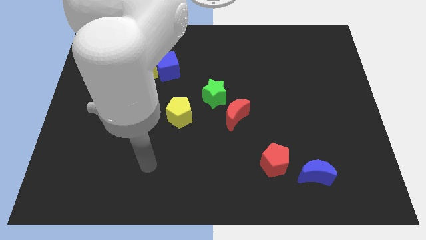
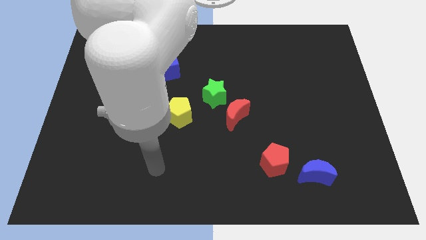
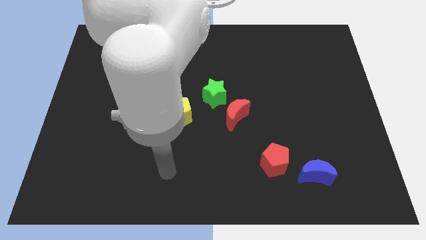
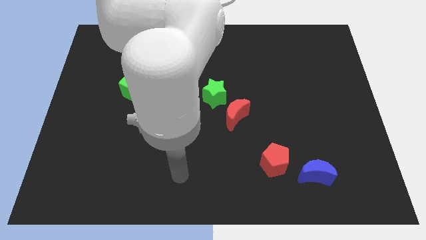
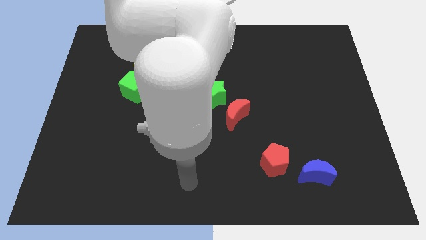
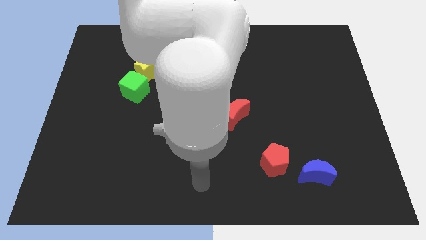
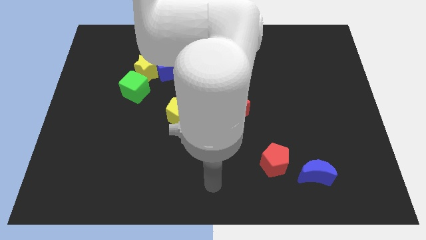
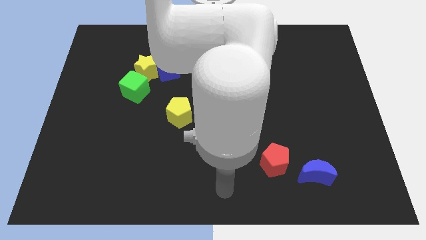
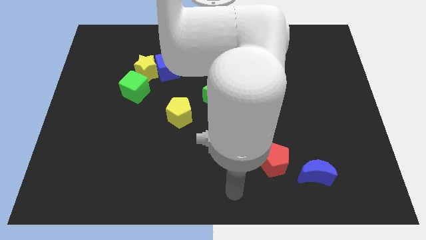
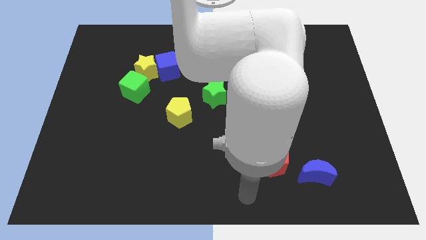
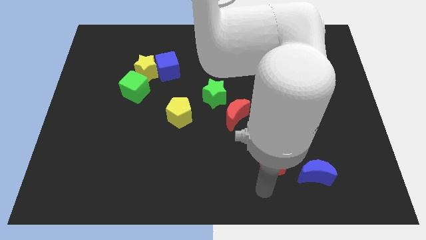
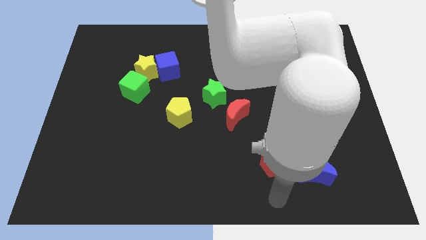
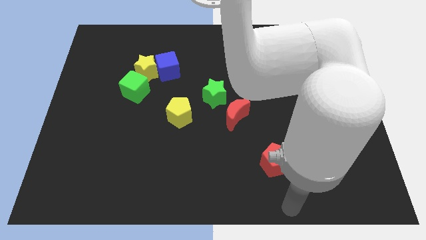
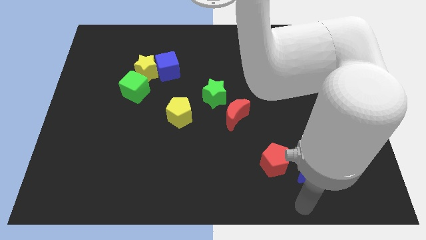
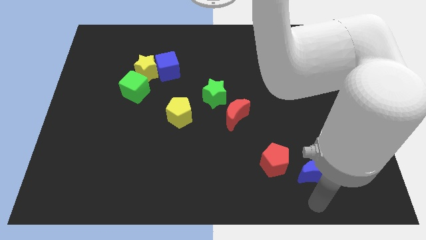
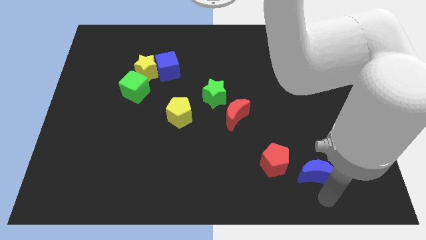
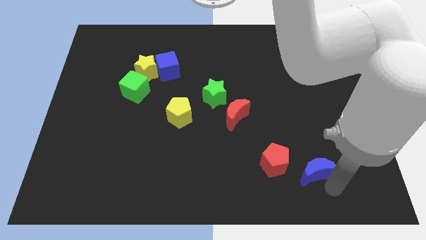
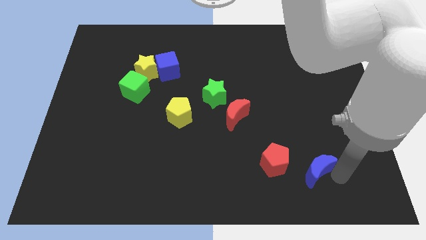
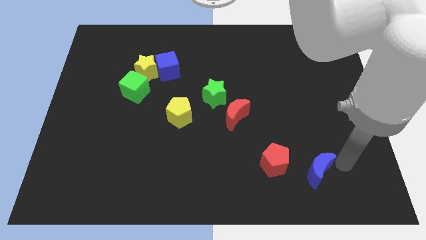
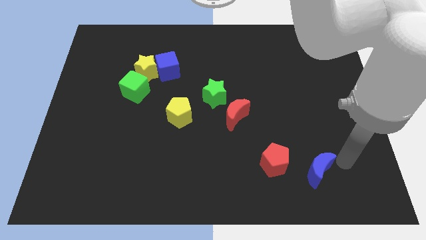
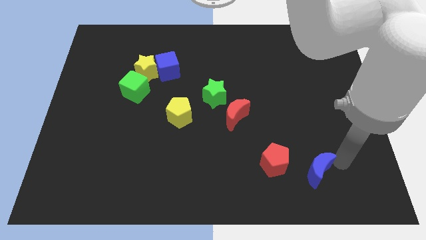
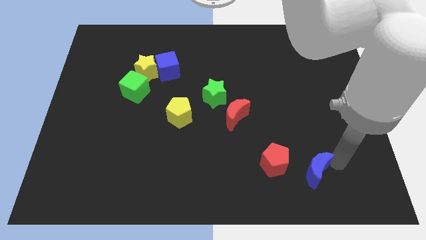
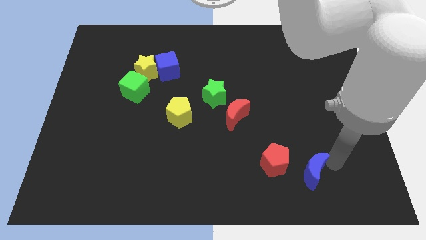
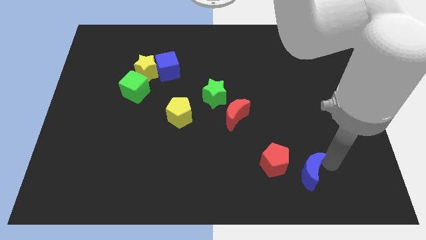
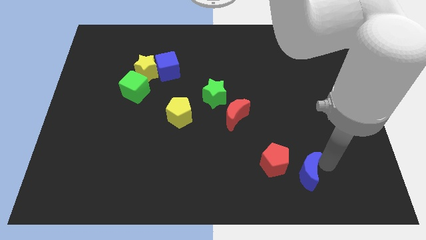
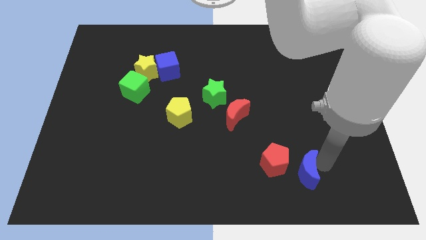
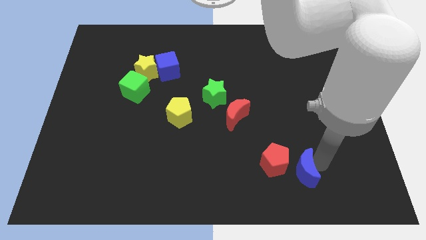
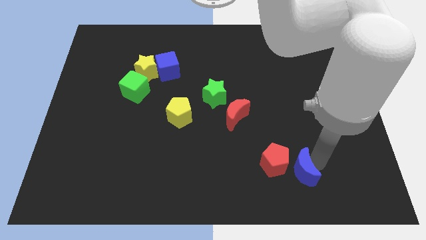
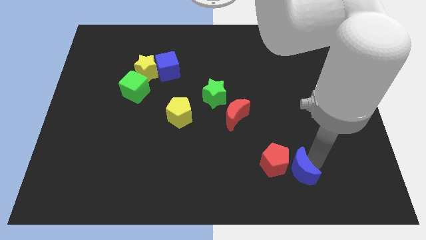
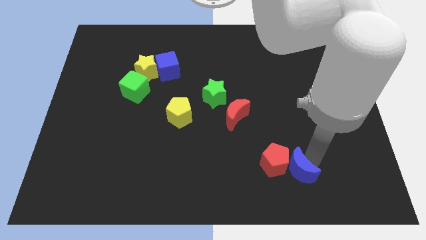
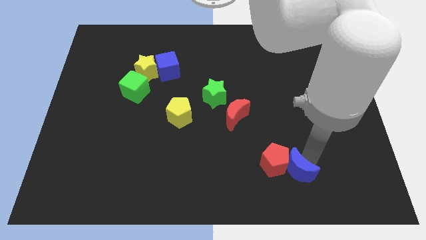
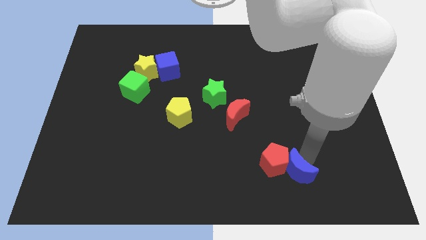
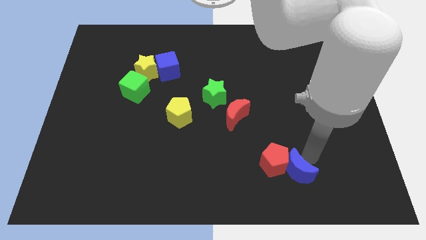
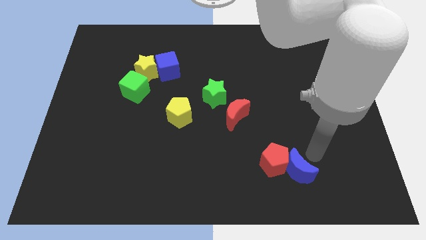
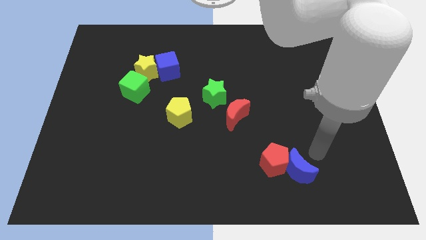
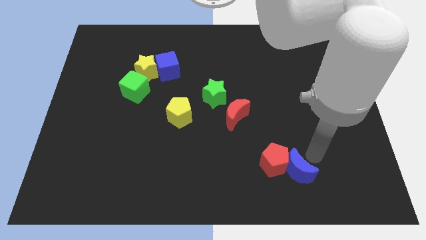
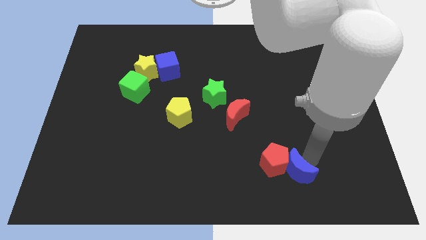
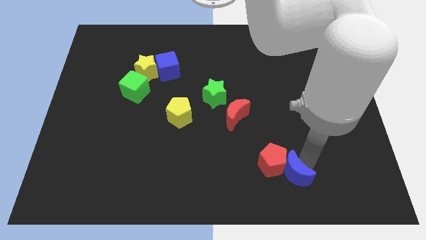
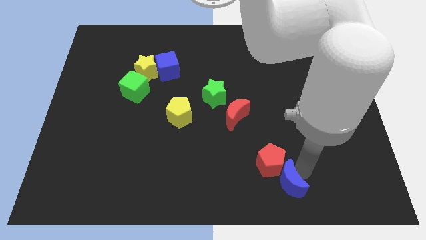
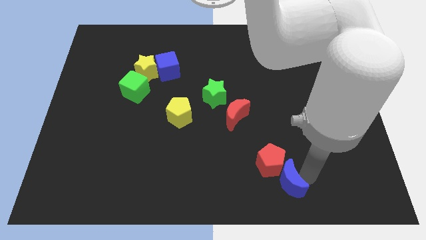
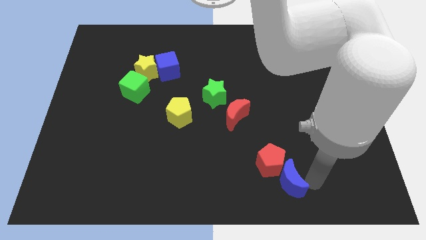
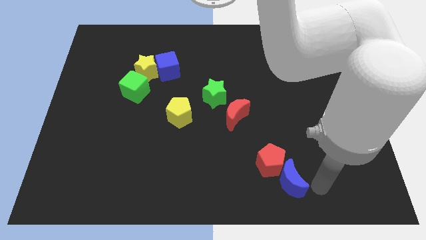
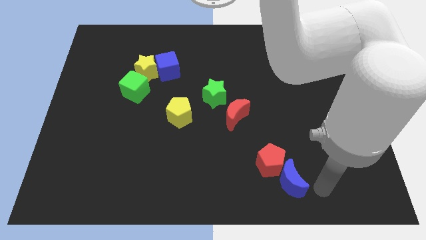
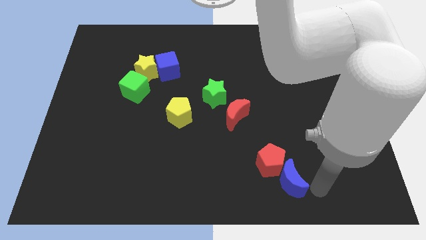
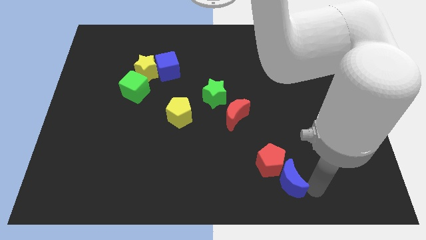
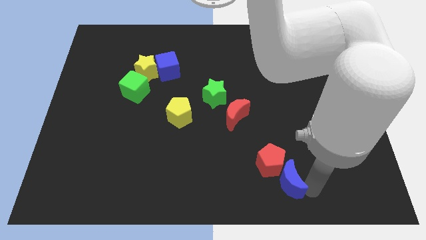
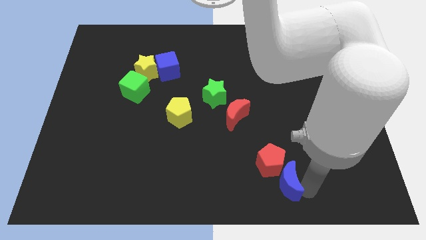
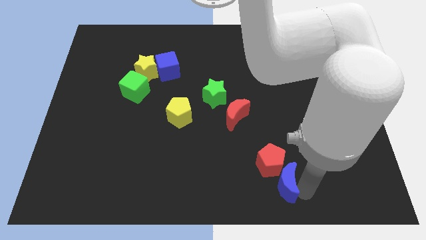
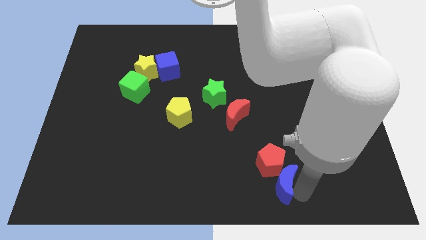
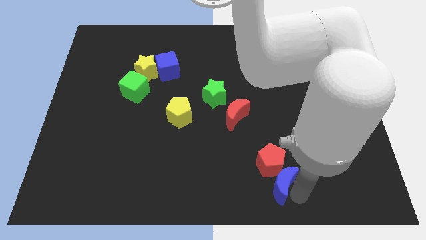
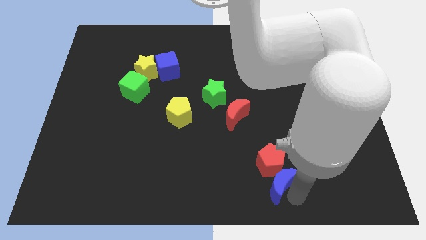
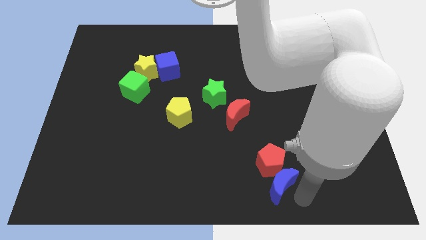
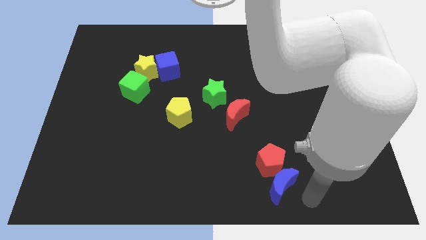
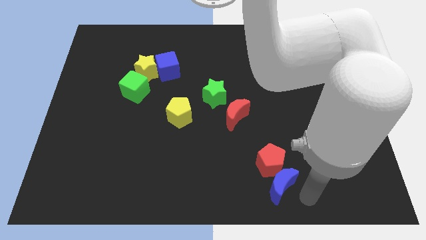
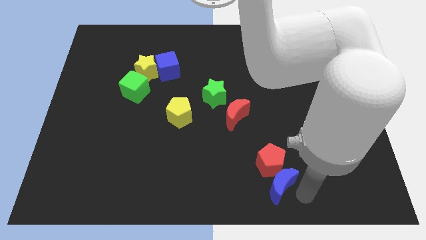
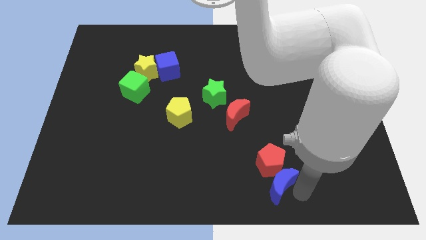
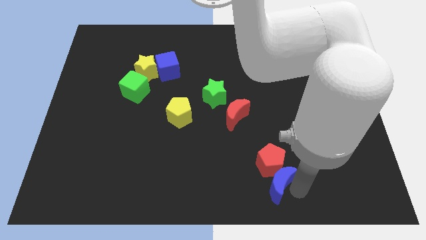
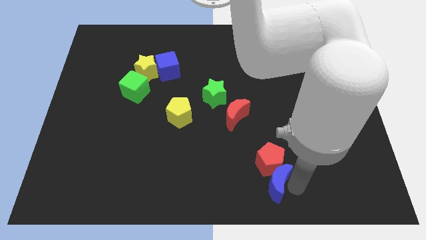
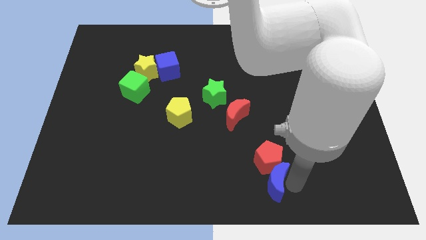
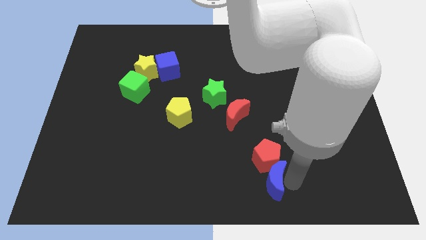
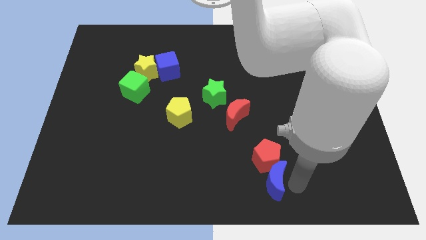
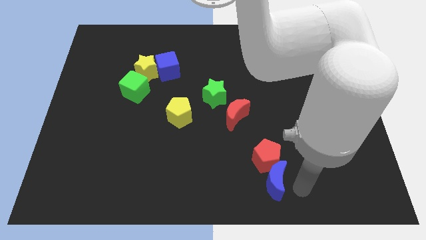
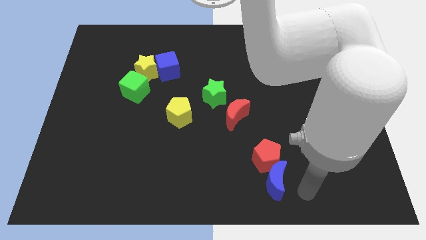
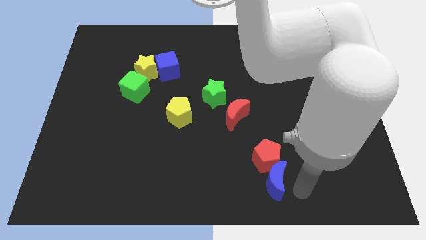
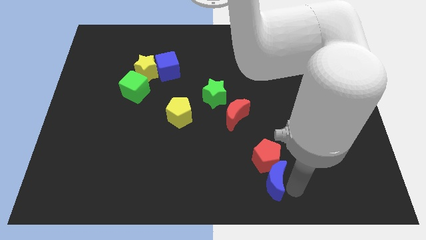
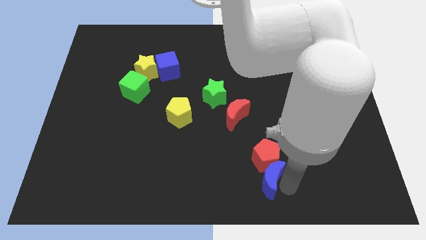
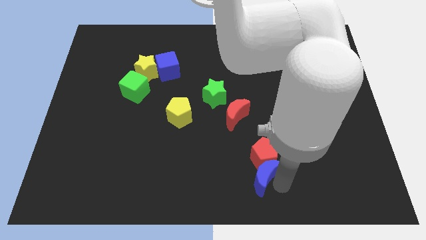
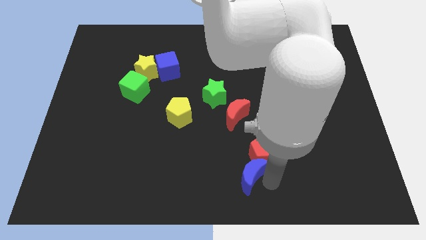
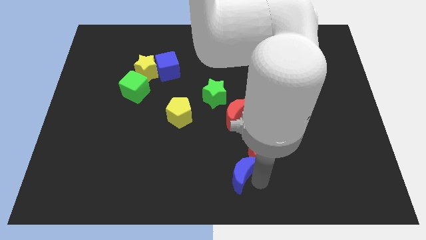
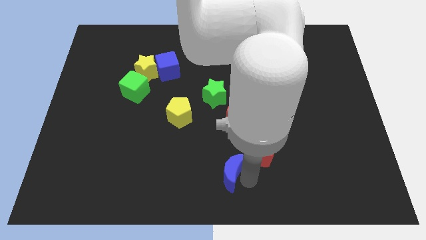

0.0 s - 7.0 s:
slide the blue moon just left of the red pentagon
